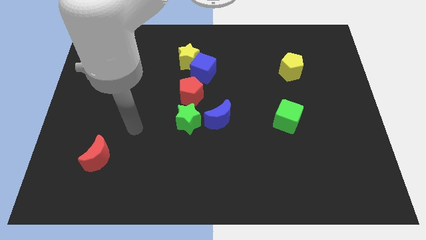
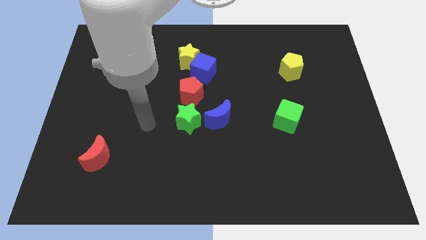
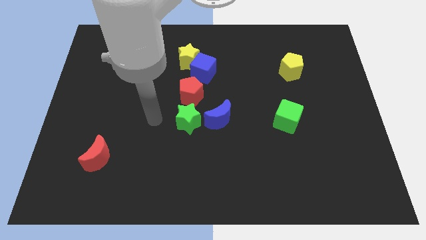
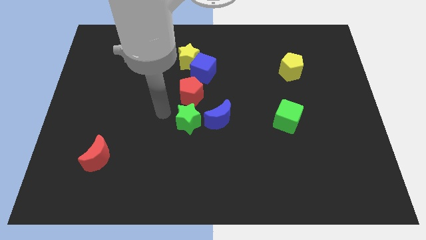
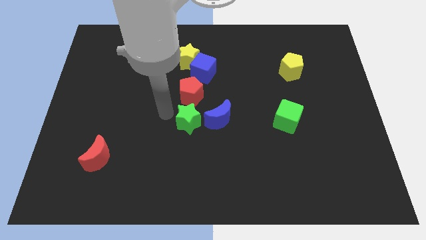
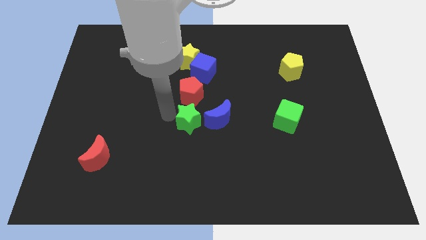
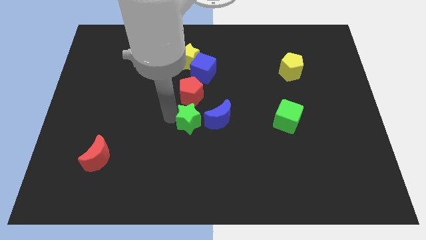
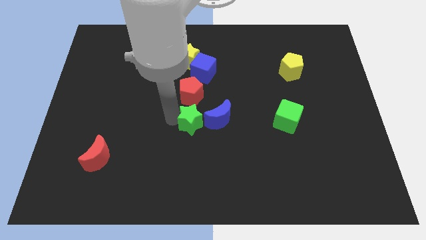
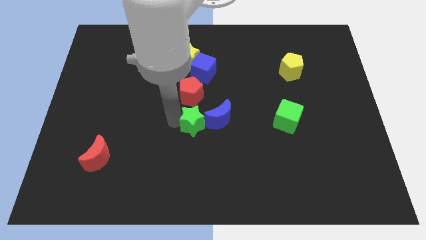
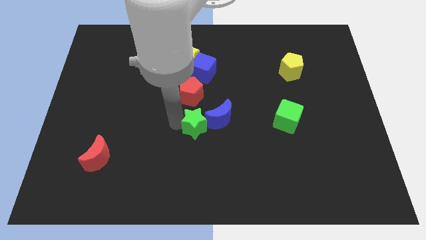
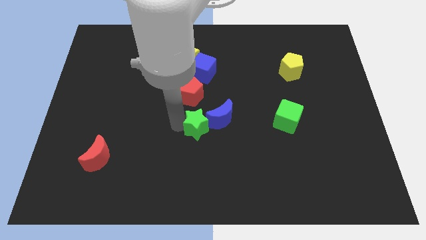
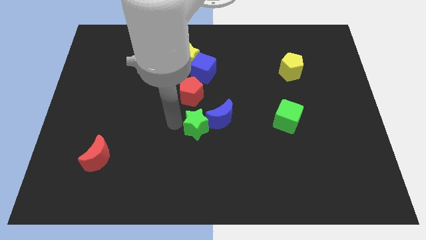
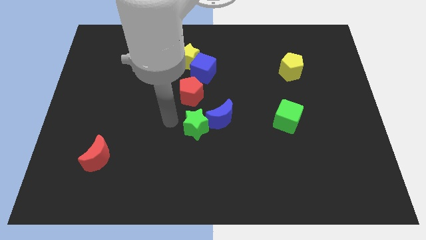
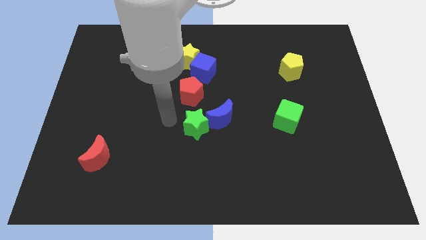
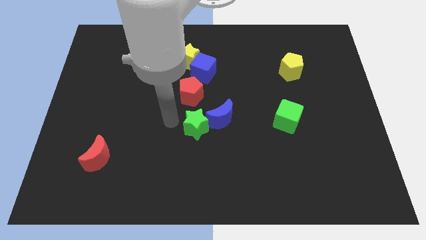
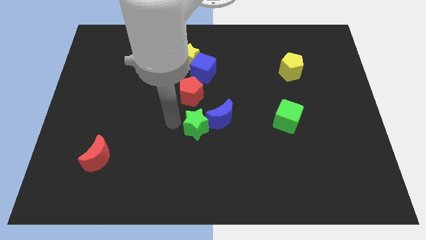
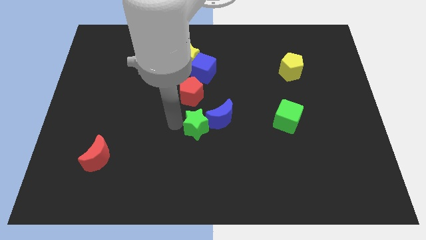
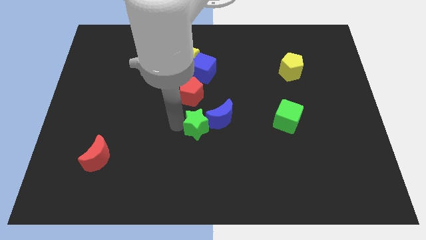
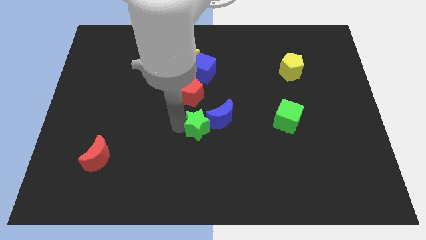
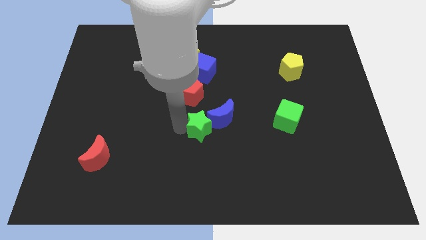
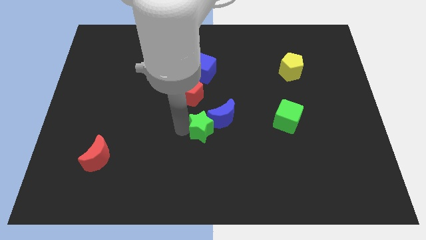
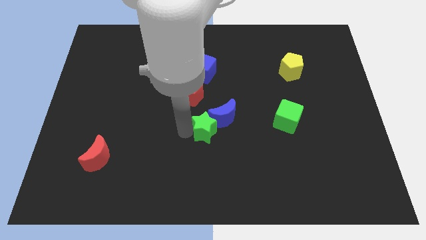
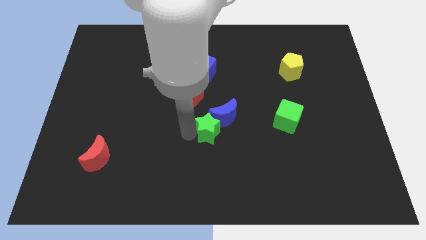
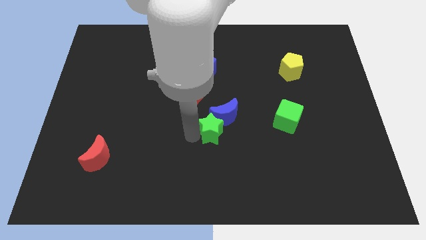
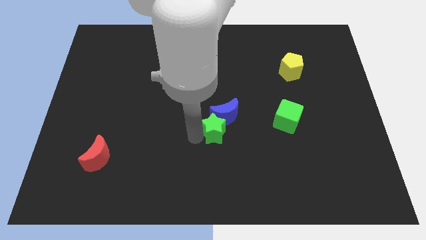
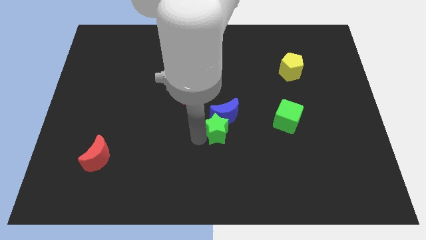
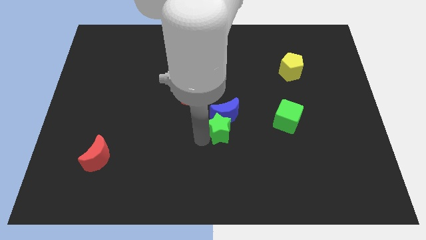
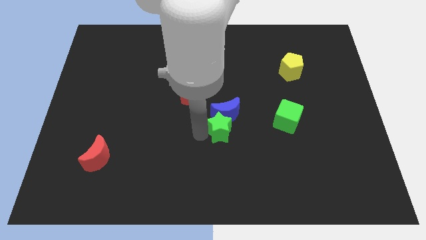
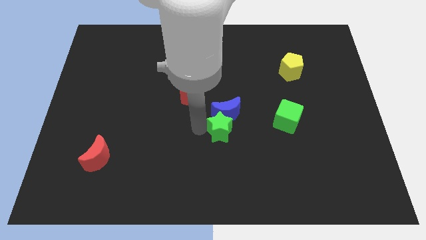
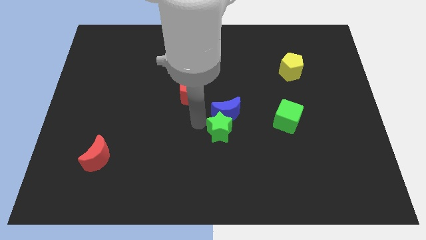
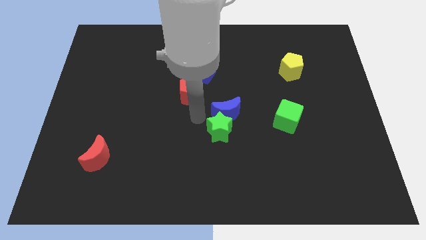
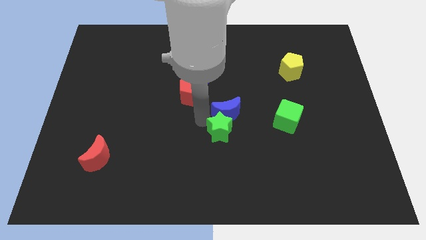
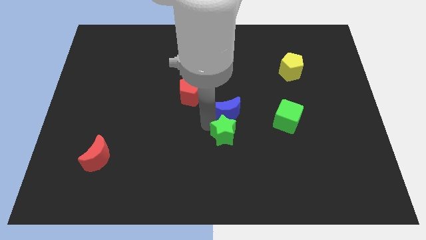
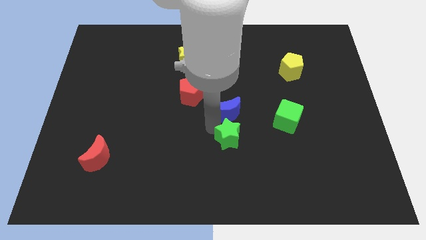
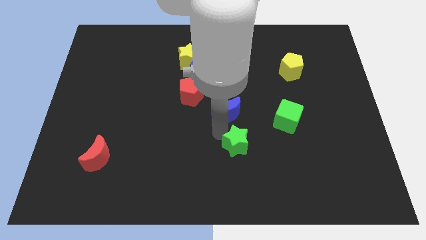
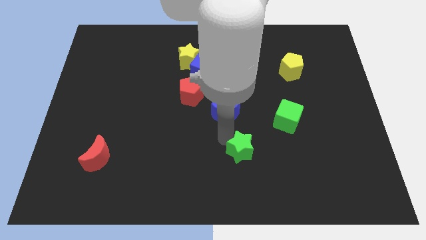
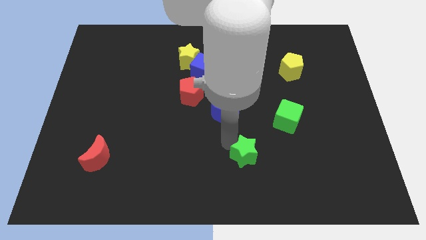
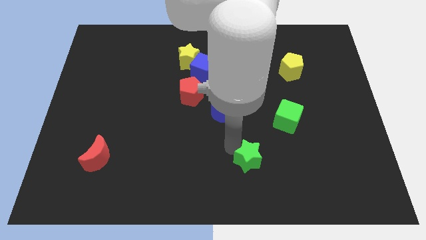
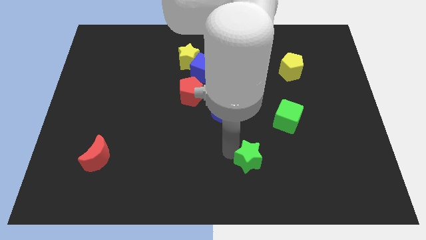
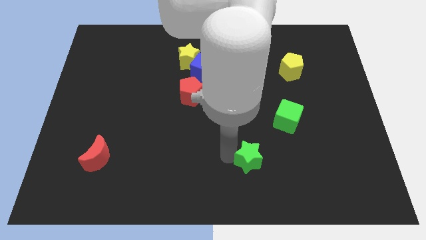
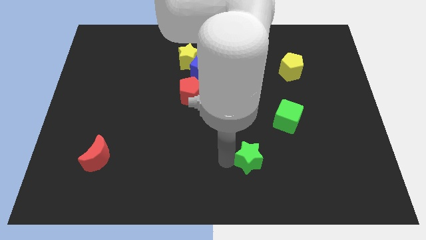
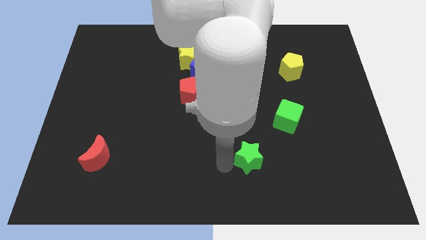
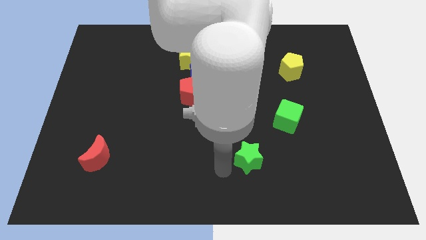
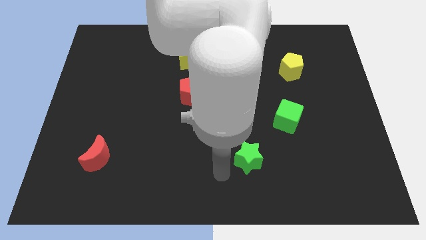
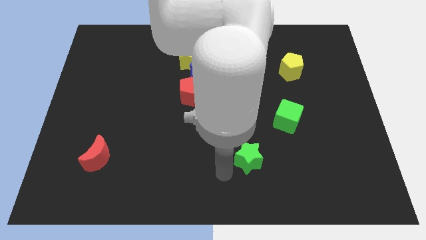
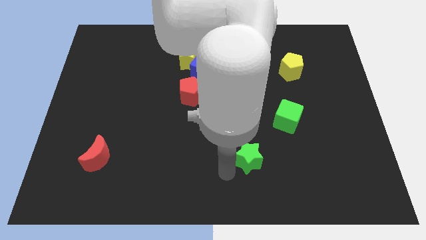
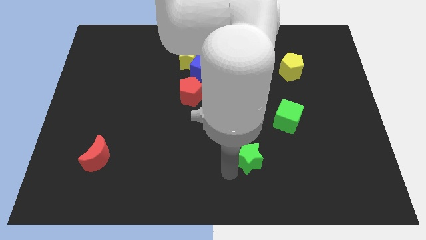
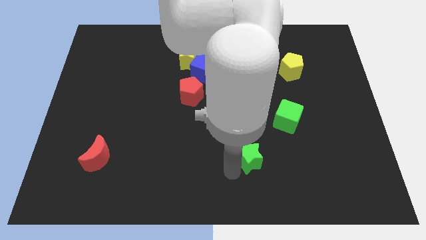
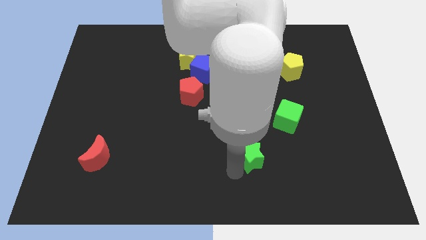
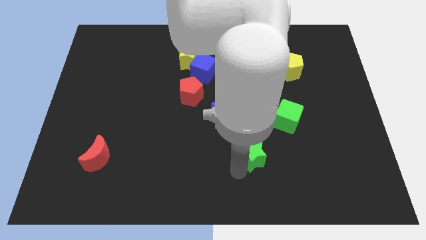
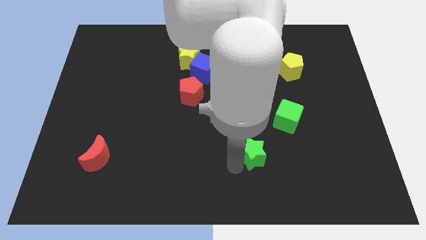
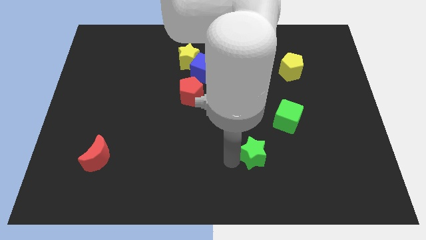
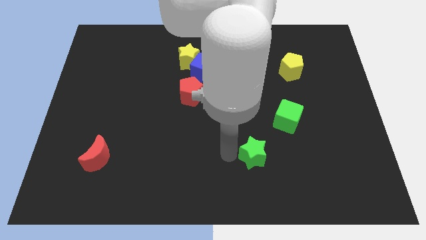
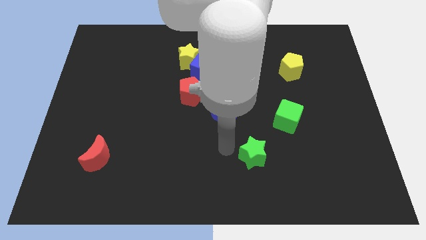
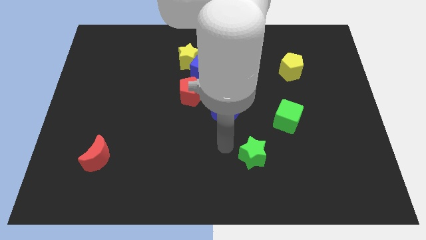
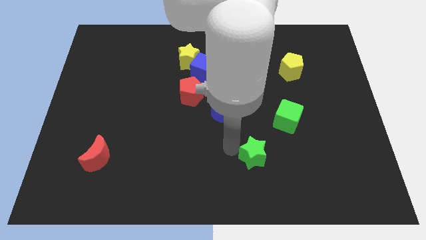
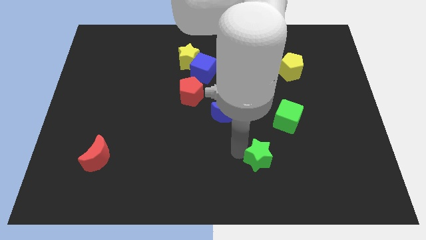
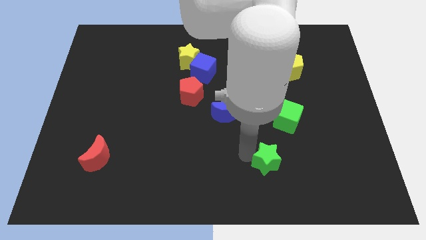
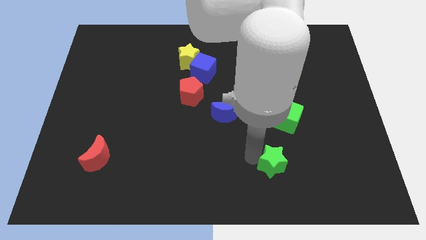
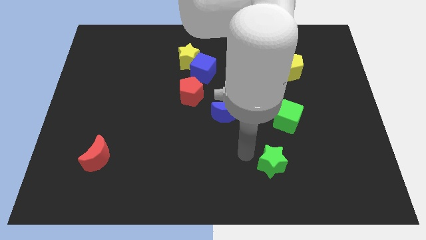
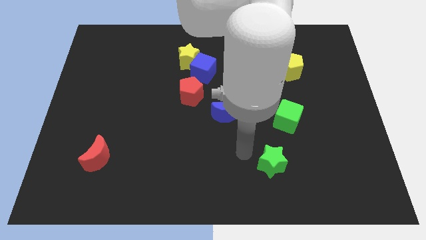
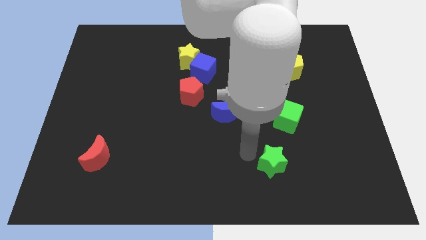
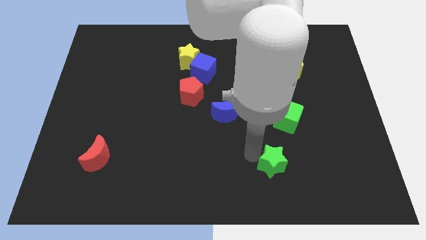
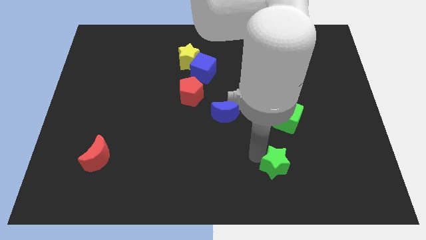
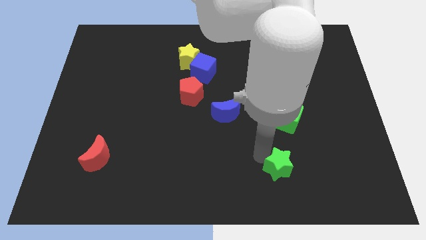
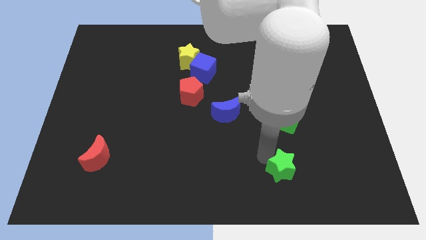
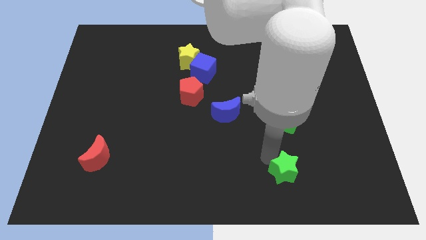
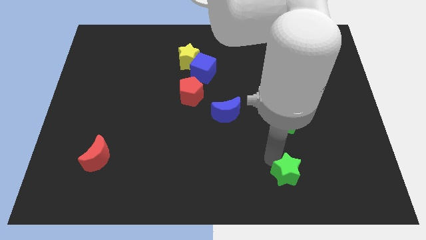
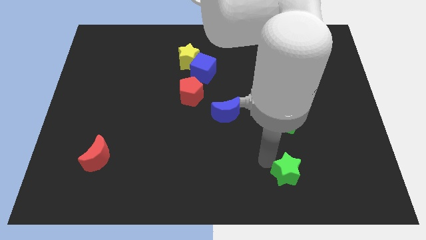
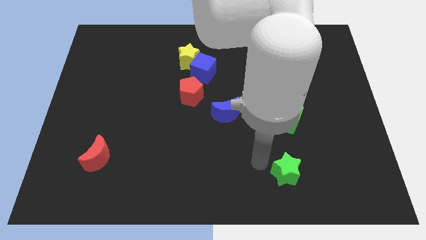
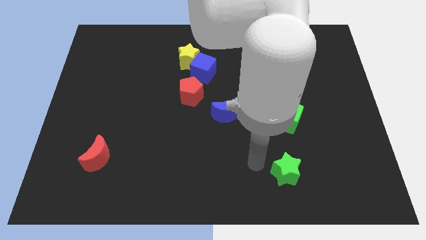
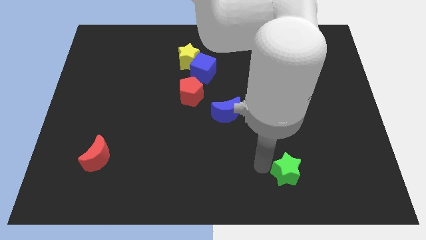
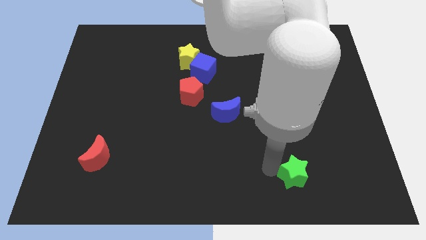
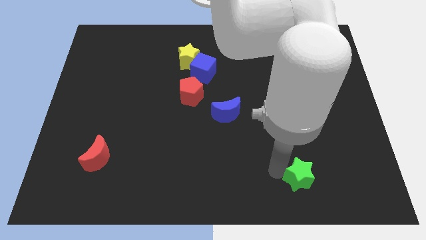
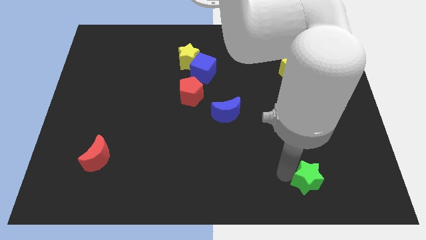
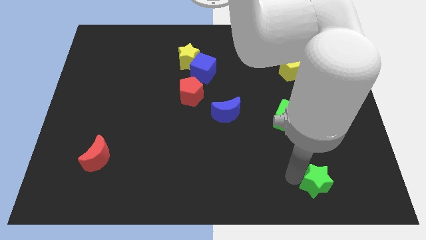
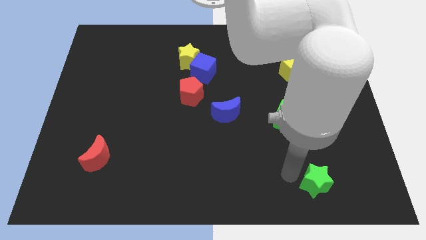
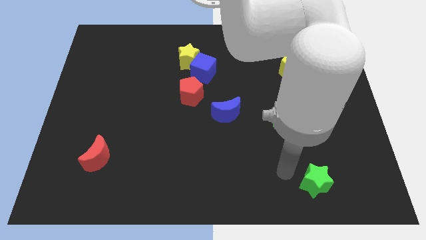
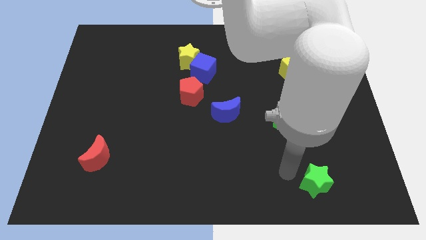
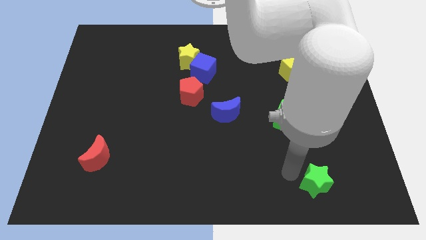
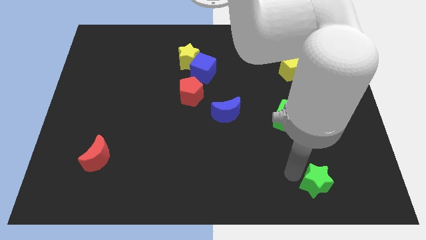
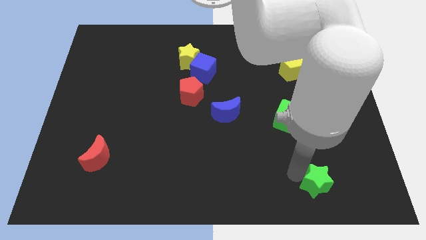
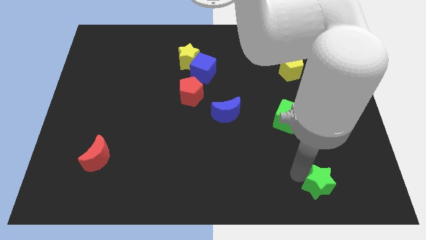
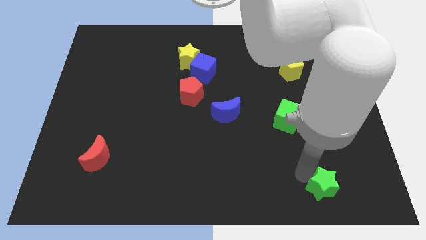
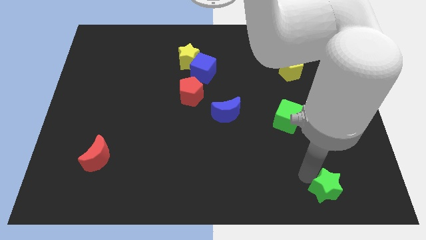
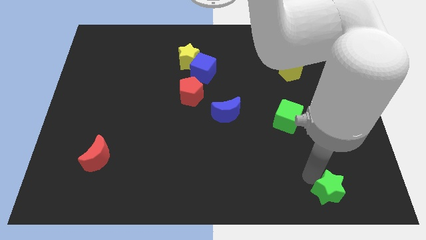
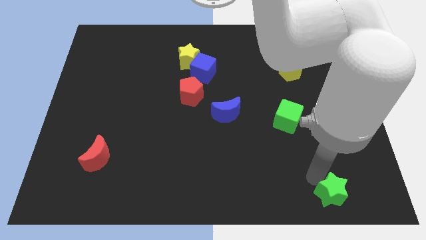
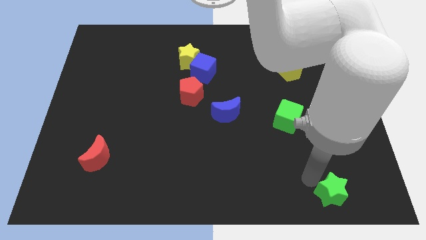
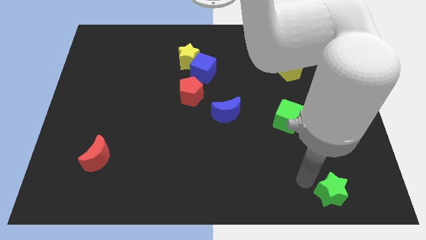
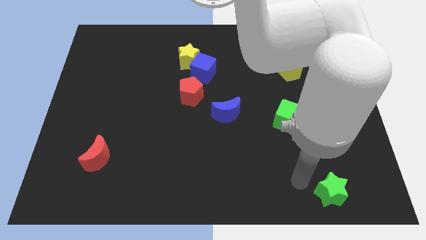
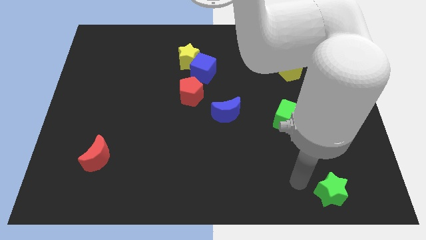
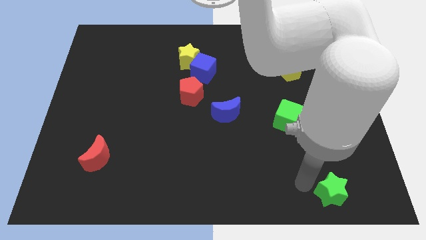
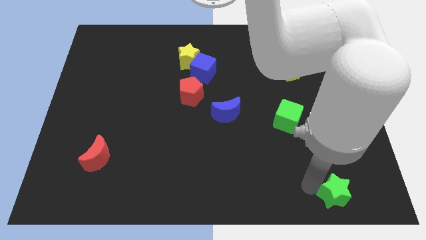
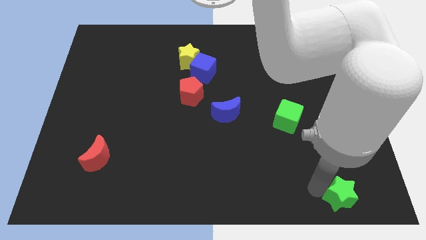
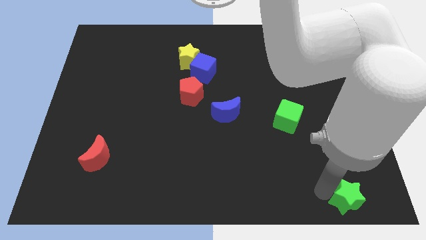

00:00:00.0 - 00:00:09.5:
push the green star to the bottom right of the board
